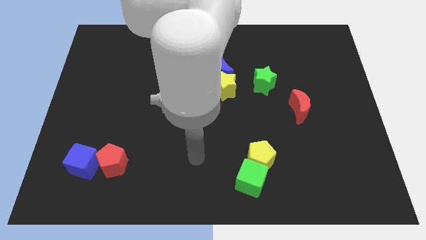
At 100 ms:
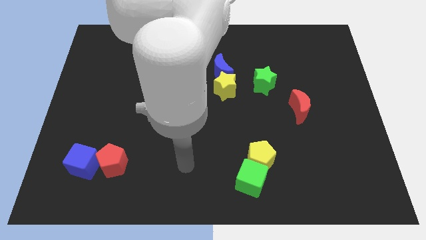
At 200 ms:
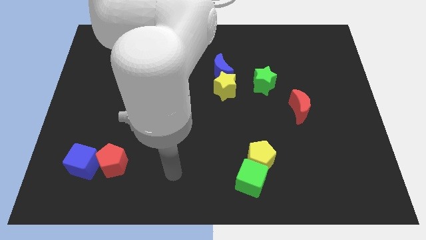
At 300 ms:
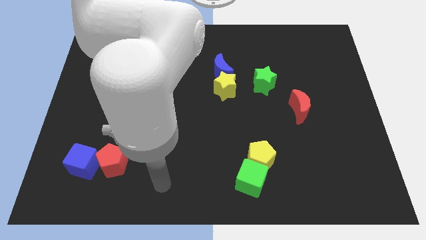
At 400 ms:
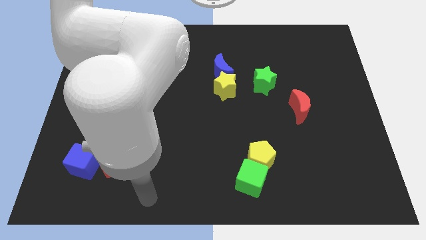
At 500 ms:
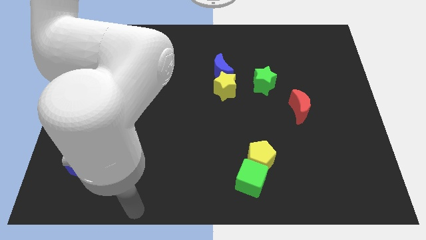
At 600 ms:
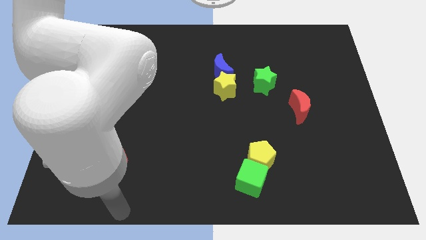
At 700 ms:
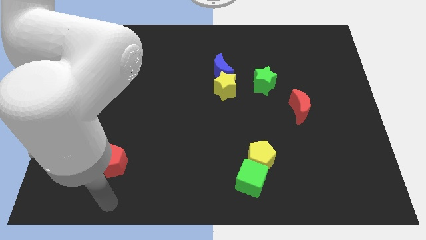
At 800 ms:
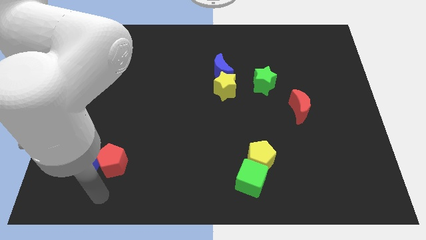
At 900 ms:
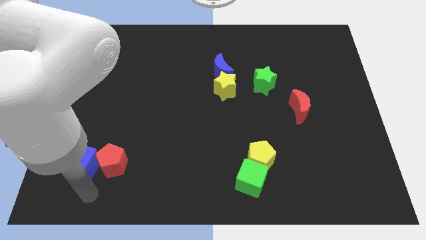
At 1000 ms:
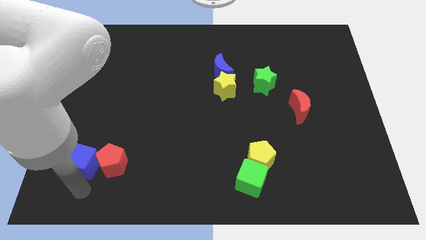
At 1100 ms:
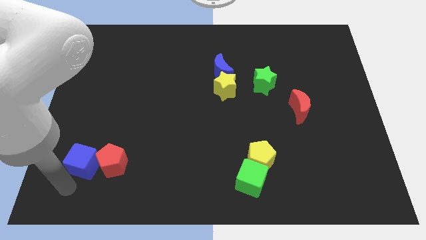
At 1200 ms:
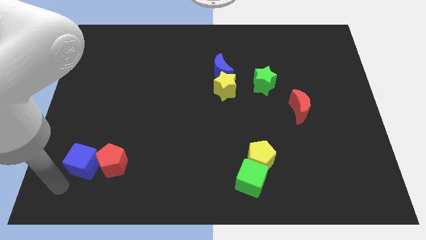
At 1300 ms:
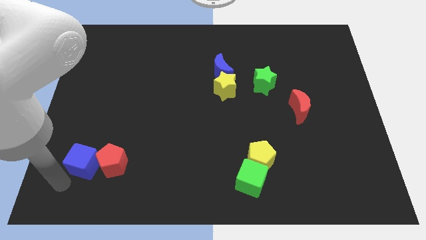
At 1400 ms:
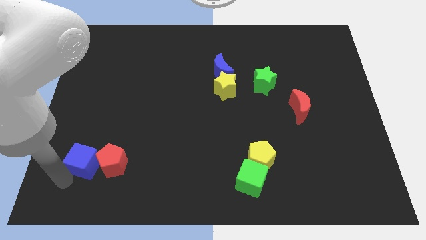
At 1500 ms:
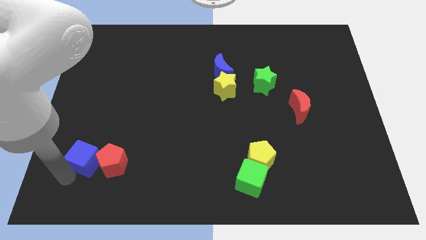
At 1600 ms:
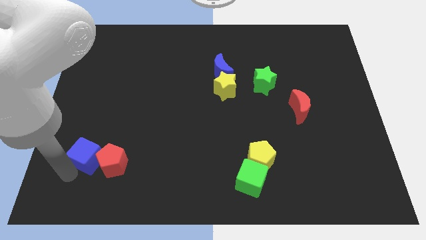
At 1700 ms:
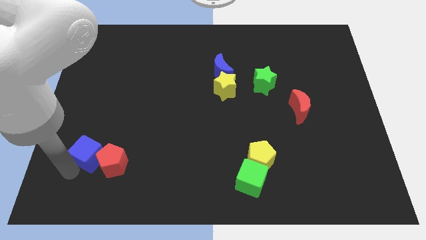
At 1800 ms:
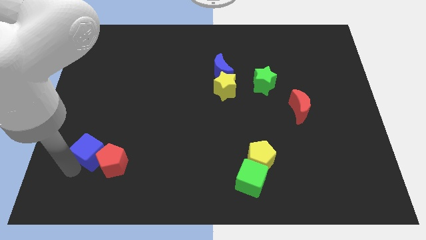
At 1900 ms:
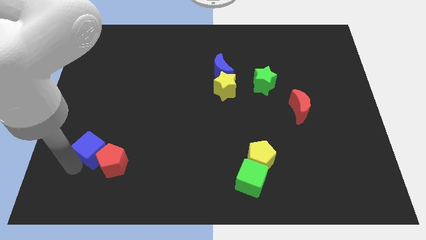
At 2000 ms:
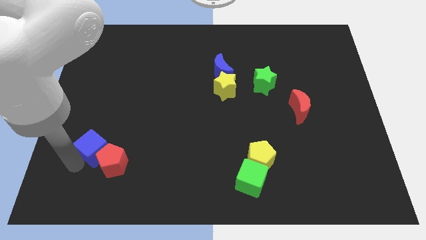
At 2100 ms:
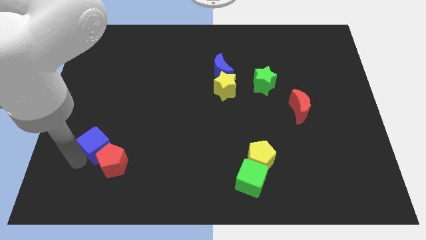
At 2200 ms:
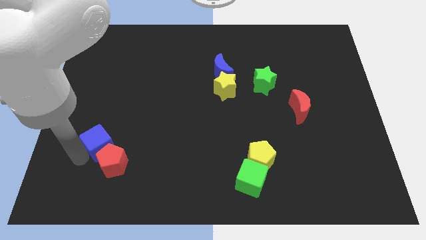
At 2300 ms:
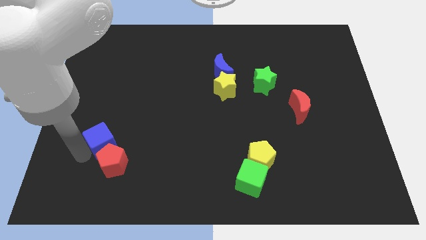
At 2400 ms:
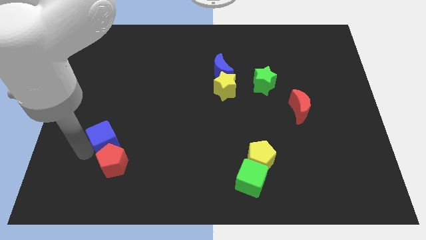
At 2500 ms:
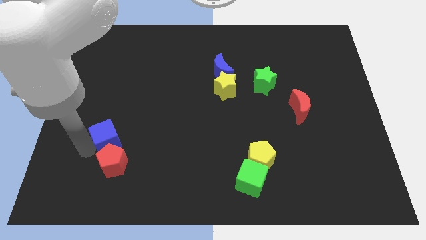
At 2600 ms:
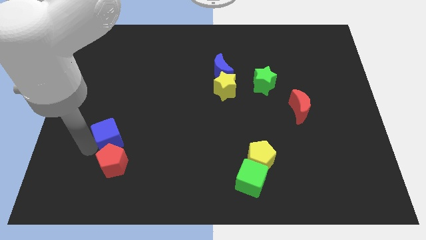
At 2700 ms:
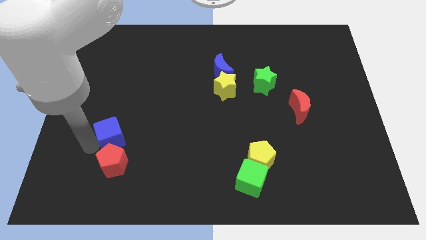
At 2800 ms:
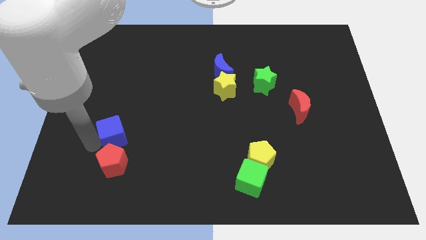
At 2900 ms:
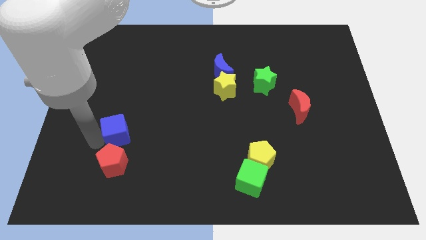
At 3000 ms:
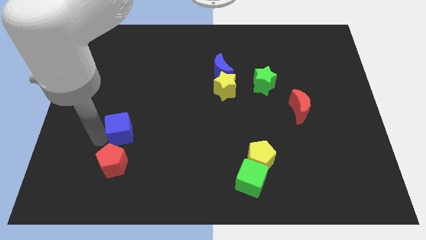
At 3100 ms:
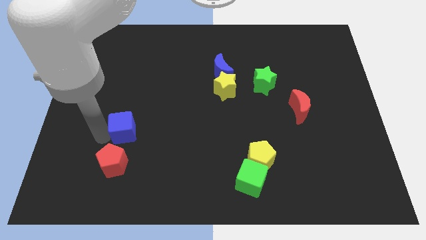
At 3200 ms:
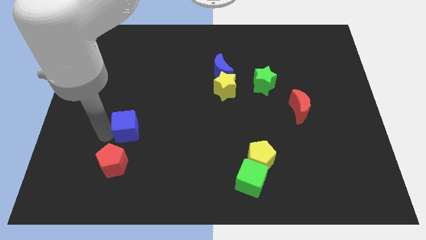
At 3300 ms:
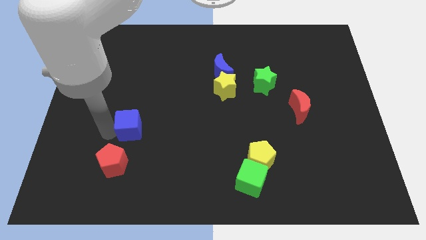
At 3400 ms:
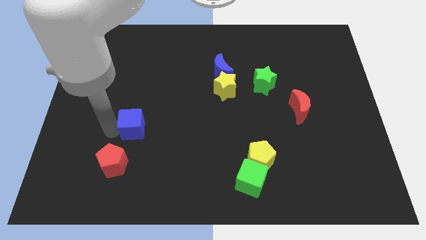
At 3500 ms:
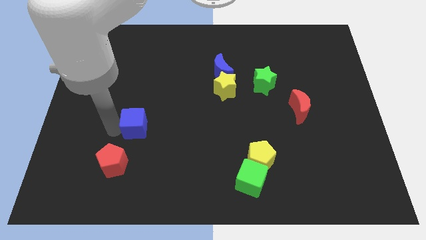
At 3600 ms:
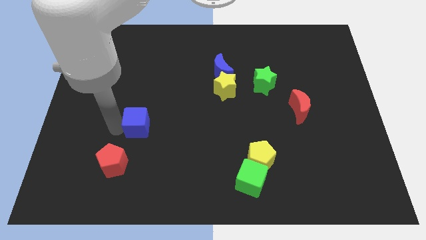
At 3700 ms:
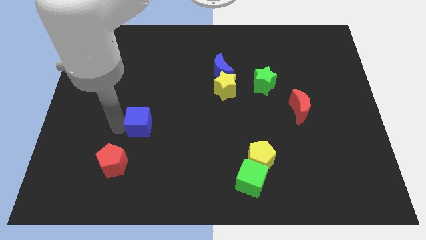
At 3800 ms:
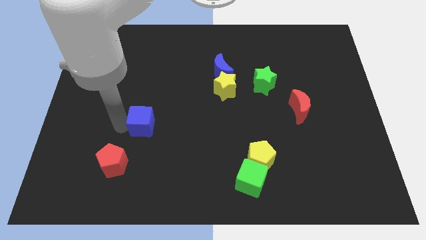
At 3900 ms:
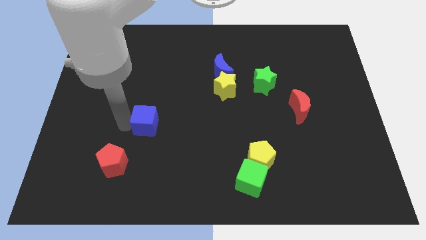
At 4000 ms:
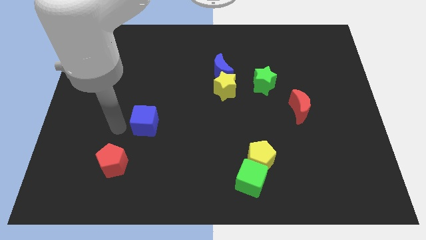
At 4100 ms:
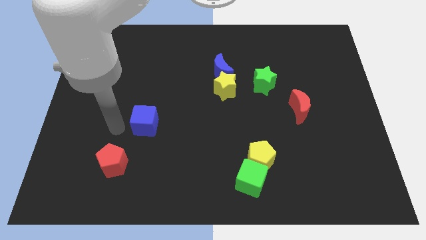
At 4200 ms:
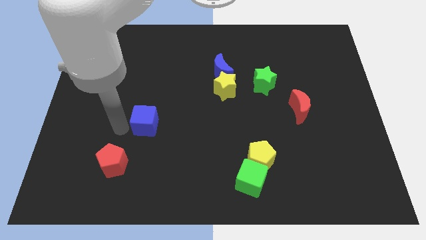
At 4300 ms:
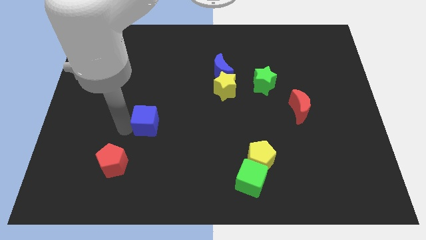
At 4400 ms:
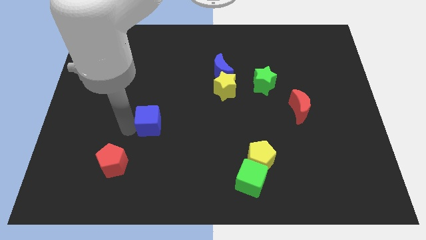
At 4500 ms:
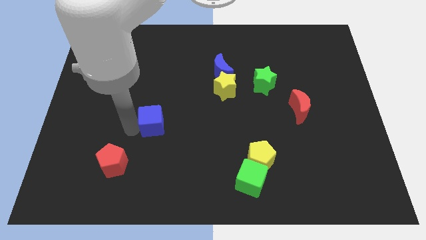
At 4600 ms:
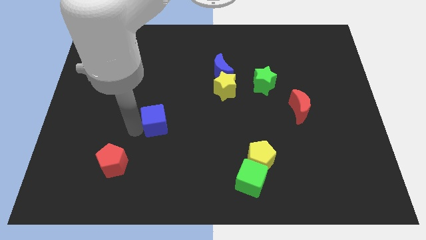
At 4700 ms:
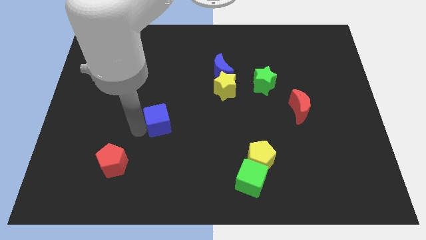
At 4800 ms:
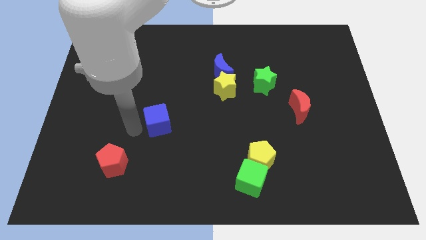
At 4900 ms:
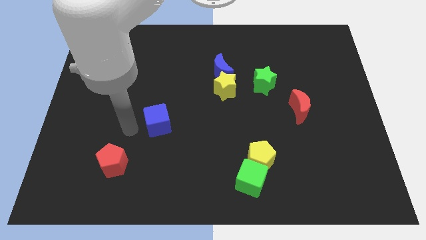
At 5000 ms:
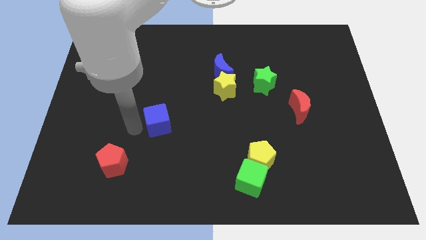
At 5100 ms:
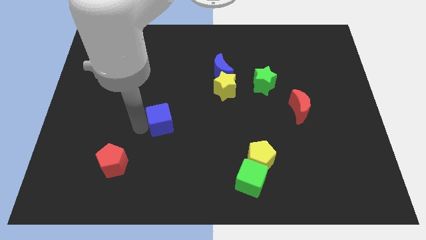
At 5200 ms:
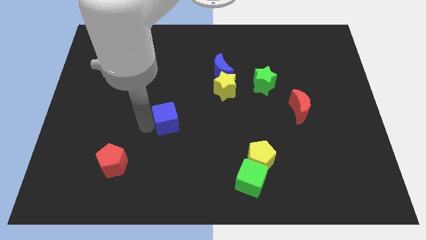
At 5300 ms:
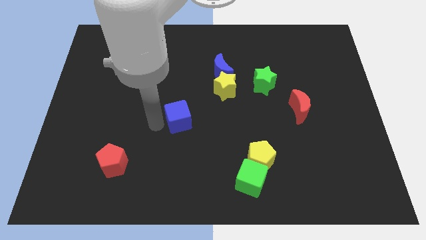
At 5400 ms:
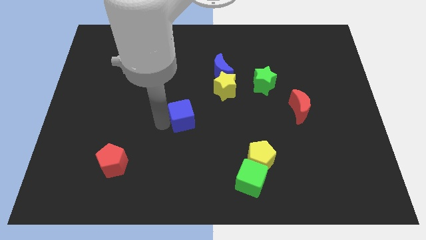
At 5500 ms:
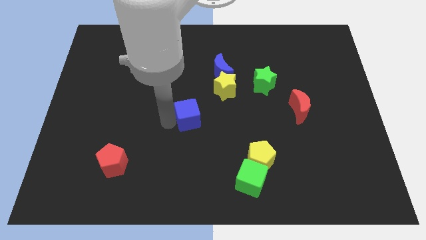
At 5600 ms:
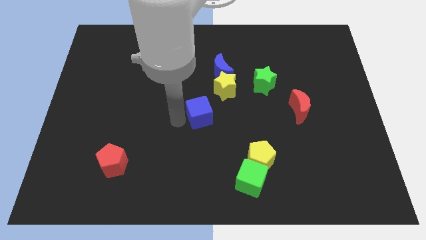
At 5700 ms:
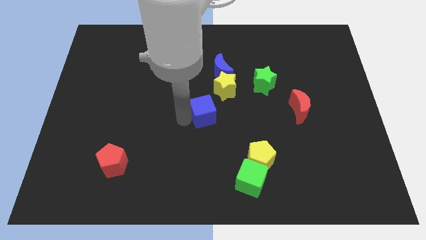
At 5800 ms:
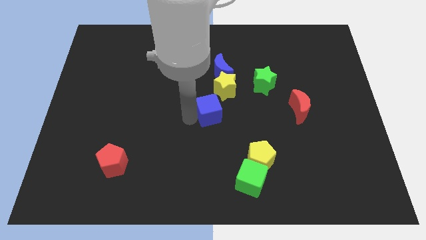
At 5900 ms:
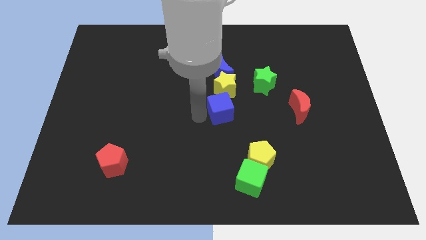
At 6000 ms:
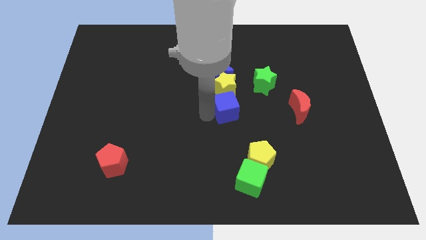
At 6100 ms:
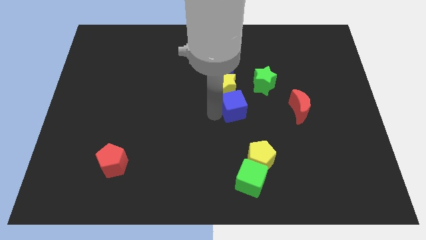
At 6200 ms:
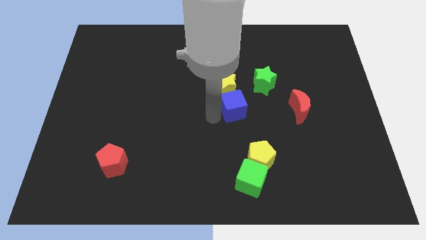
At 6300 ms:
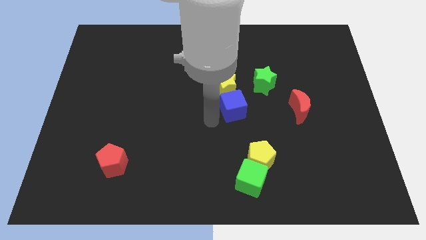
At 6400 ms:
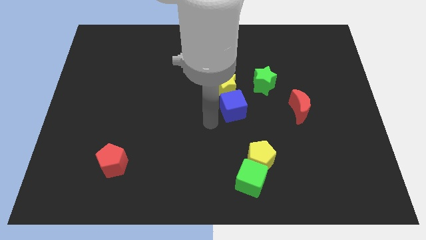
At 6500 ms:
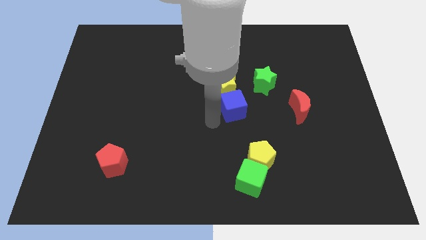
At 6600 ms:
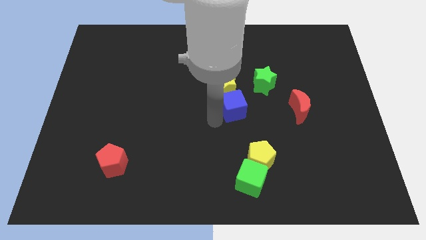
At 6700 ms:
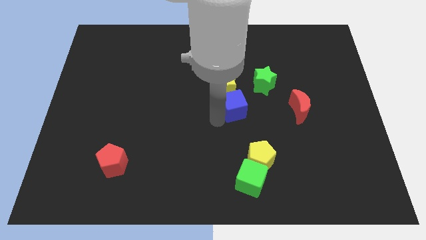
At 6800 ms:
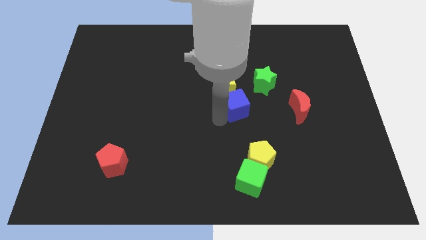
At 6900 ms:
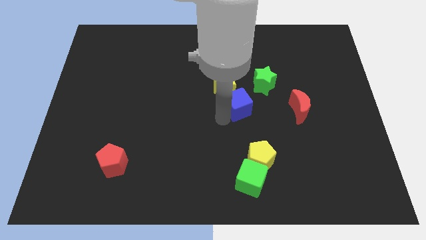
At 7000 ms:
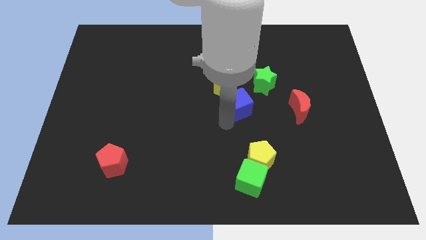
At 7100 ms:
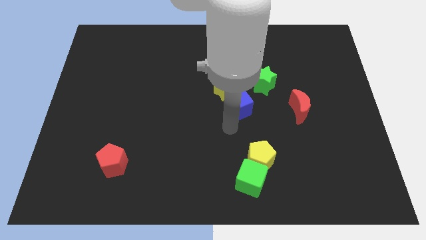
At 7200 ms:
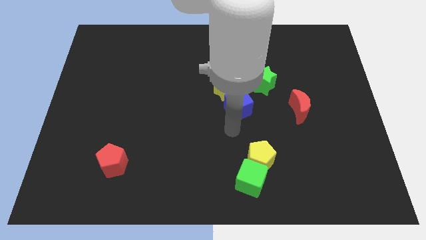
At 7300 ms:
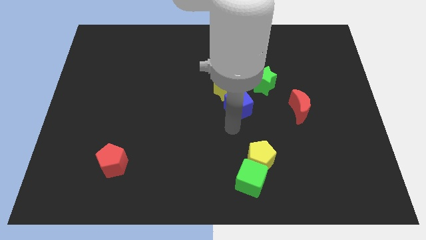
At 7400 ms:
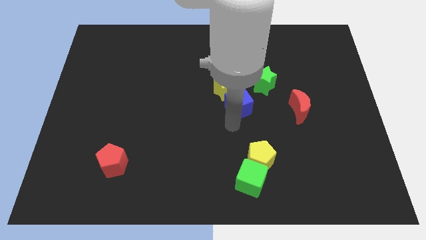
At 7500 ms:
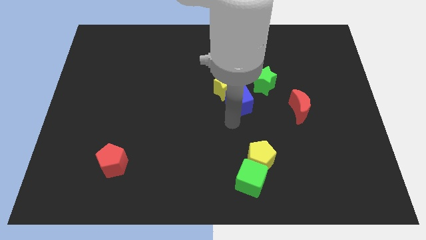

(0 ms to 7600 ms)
put the blue cube diagonally down and to the right of the blue moon

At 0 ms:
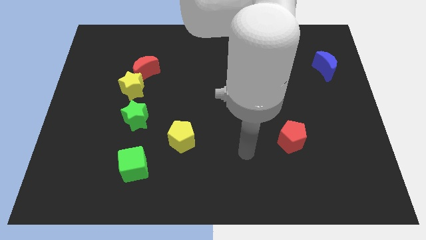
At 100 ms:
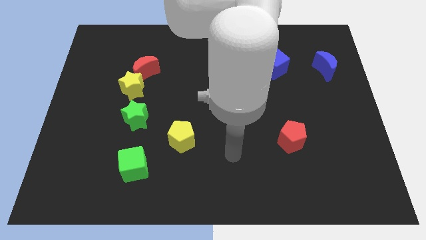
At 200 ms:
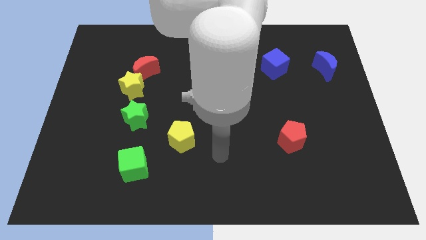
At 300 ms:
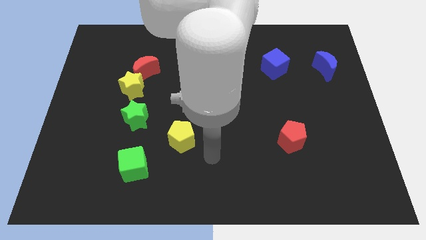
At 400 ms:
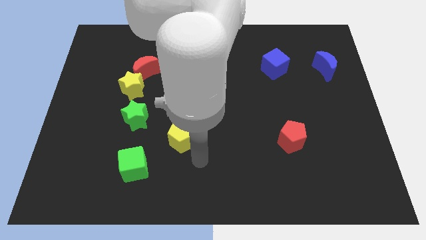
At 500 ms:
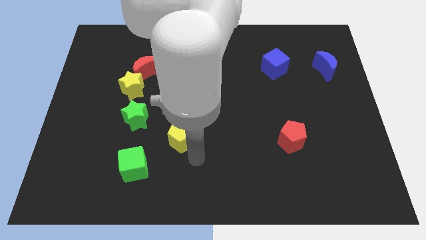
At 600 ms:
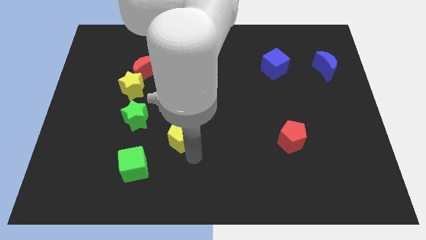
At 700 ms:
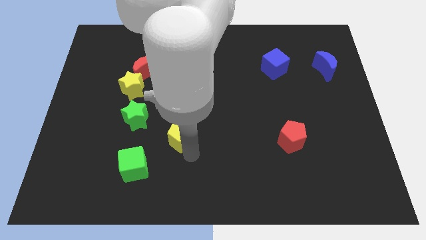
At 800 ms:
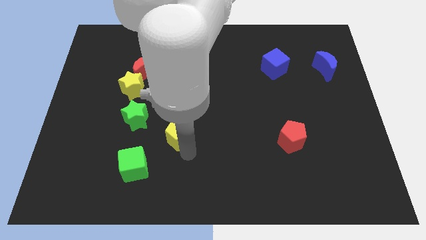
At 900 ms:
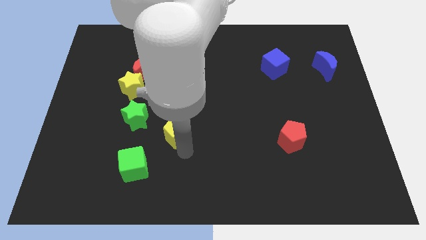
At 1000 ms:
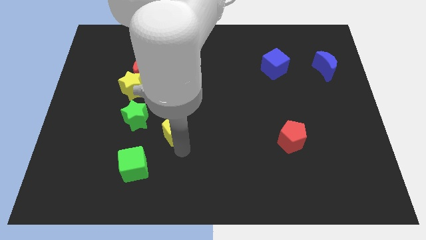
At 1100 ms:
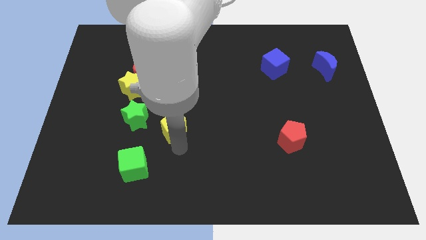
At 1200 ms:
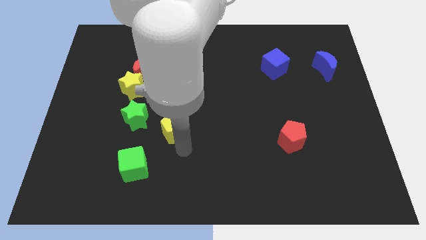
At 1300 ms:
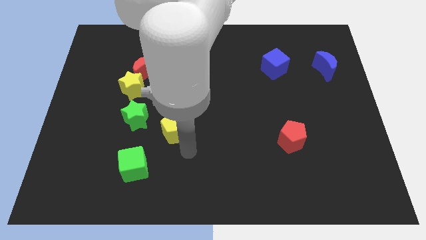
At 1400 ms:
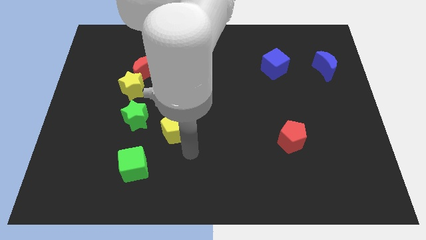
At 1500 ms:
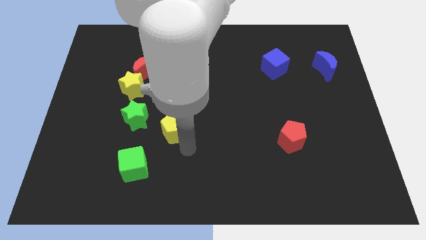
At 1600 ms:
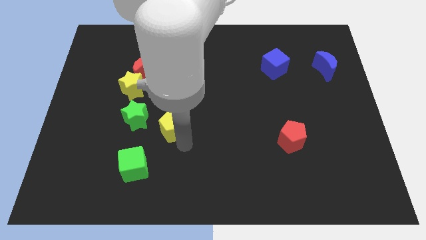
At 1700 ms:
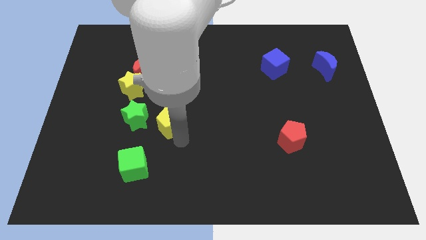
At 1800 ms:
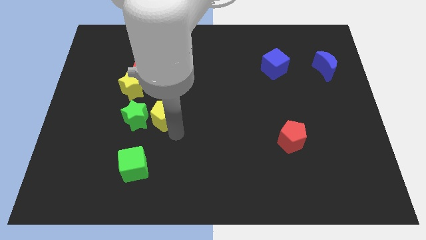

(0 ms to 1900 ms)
put the yellow pentagon diagonally down and to the right of the yellow star
